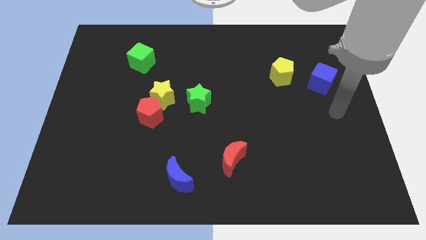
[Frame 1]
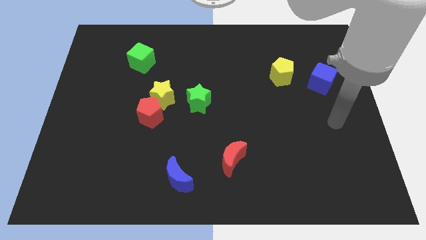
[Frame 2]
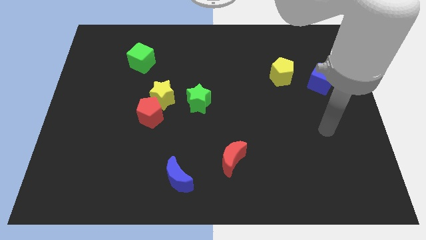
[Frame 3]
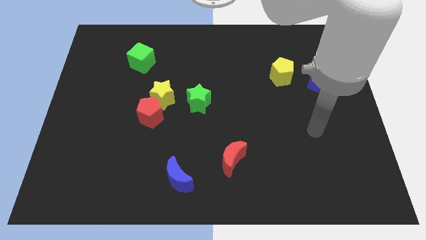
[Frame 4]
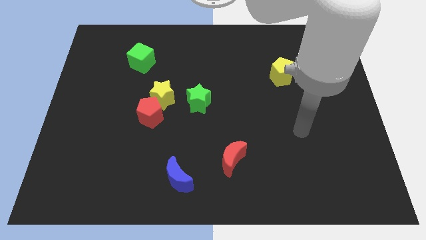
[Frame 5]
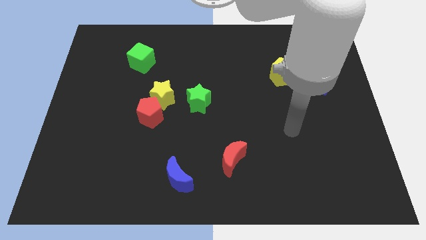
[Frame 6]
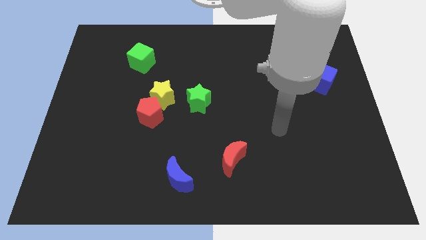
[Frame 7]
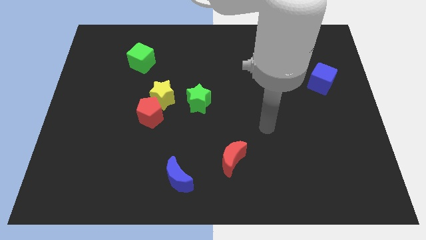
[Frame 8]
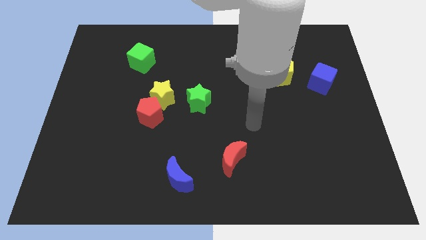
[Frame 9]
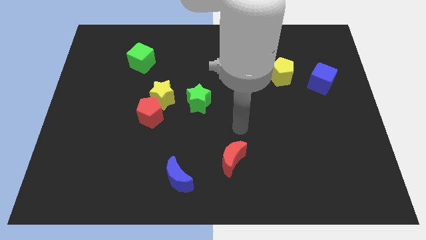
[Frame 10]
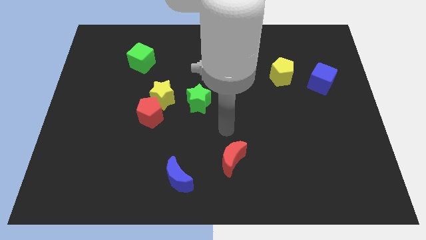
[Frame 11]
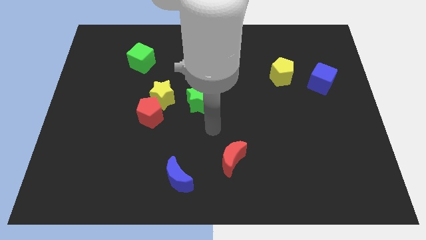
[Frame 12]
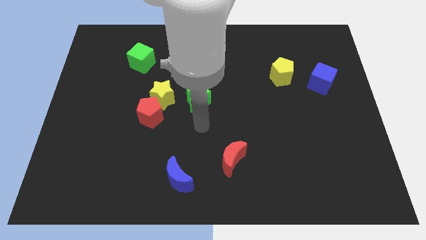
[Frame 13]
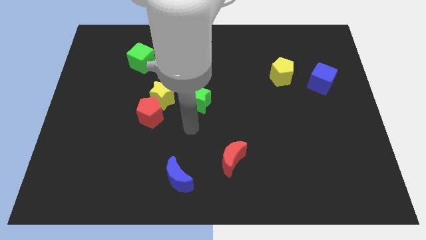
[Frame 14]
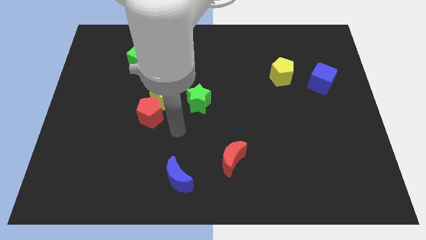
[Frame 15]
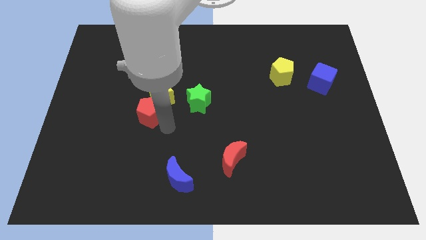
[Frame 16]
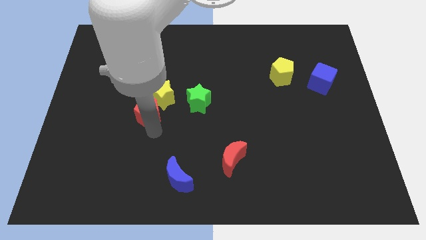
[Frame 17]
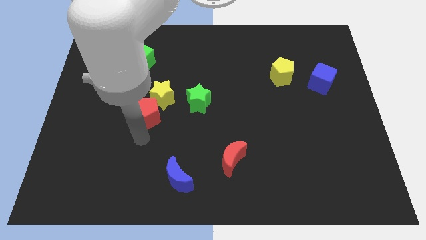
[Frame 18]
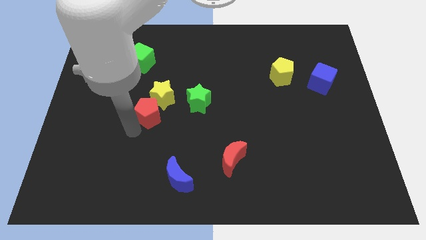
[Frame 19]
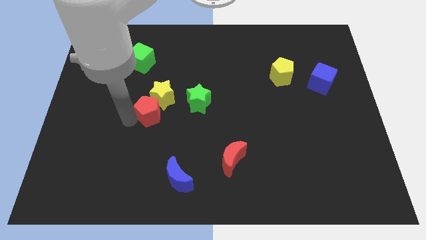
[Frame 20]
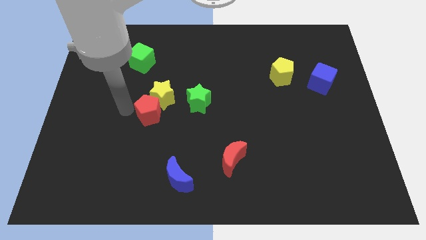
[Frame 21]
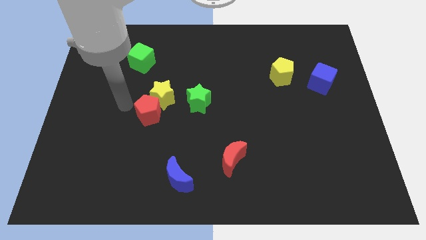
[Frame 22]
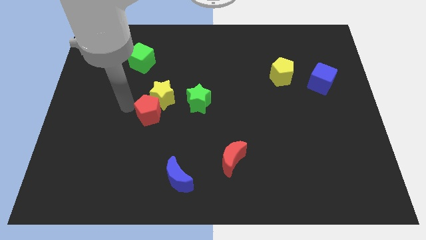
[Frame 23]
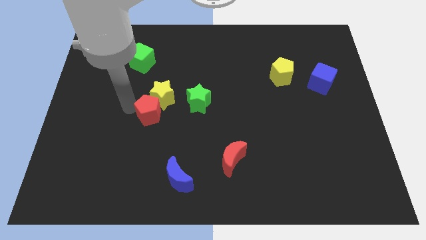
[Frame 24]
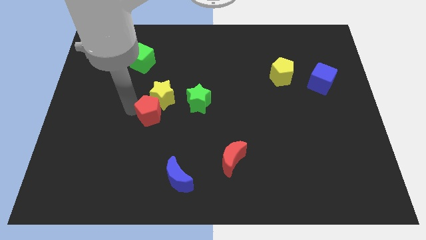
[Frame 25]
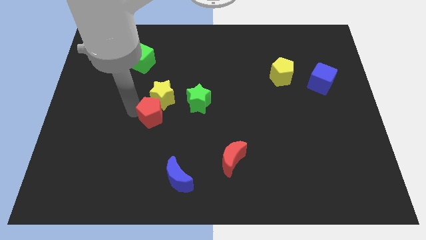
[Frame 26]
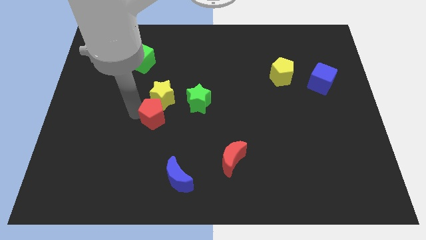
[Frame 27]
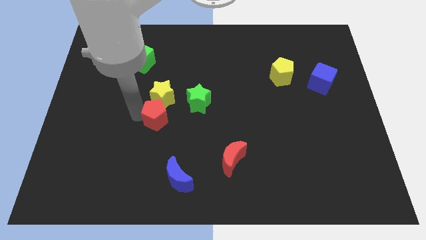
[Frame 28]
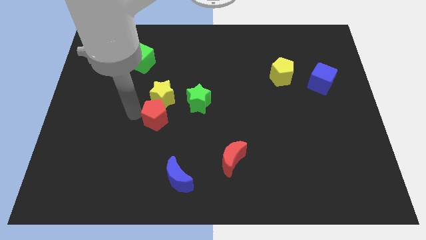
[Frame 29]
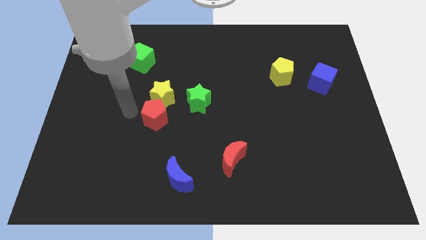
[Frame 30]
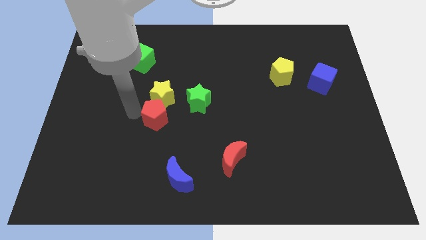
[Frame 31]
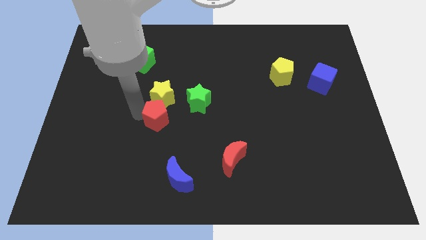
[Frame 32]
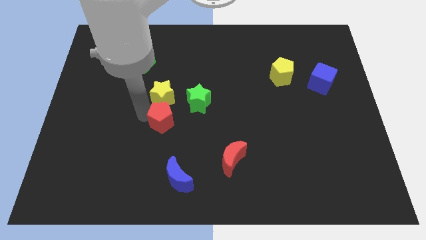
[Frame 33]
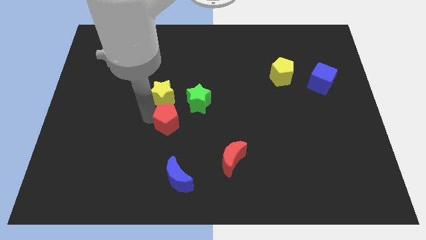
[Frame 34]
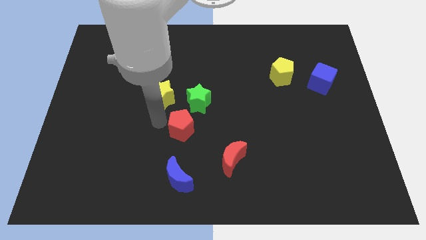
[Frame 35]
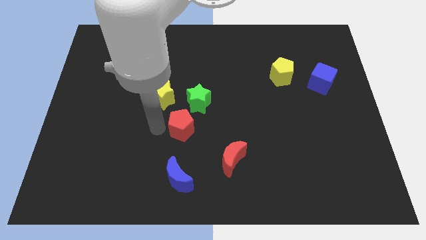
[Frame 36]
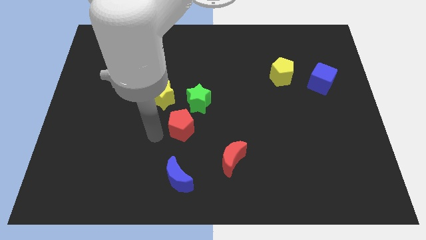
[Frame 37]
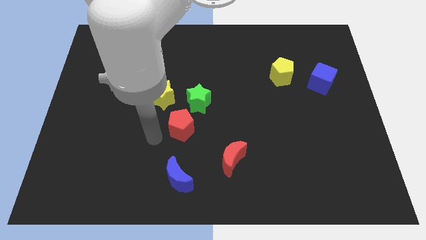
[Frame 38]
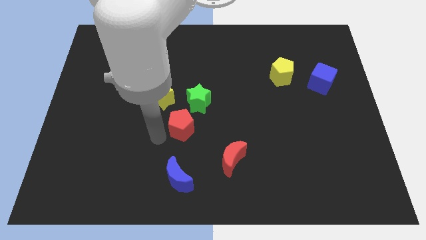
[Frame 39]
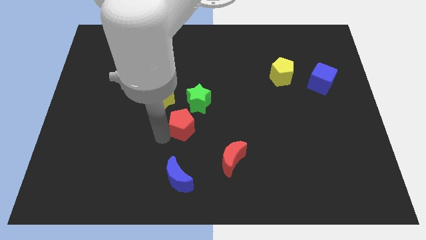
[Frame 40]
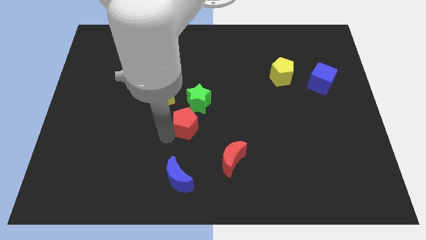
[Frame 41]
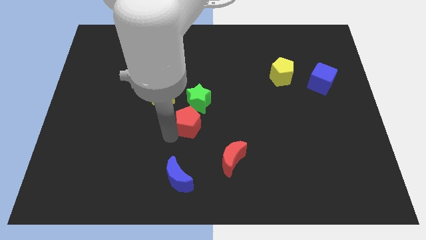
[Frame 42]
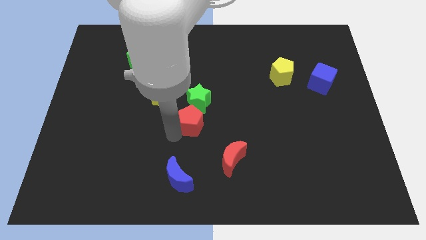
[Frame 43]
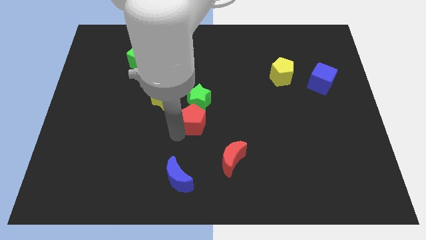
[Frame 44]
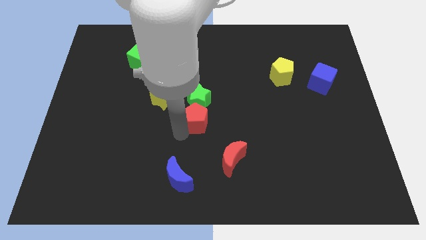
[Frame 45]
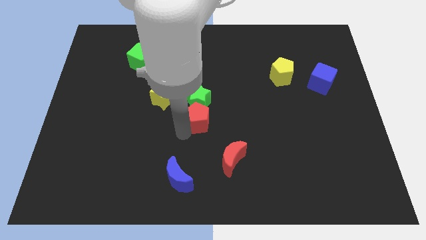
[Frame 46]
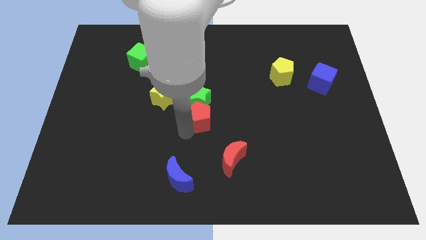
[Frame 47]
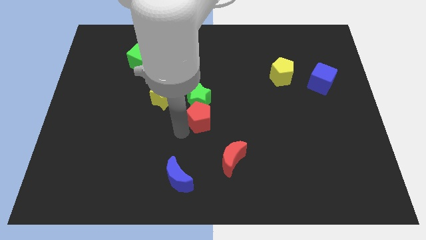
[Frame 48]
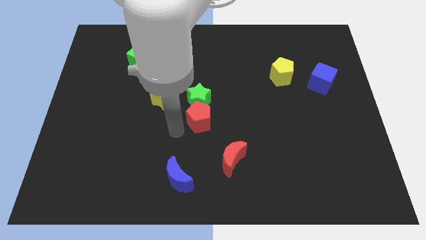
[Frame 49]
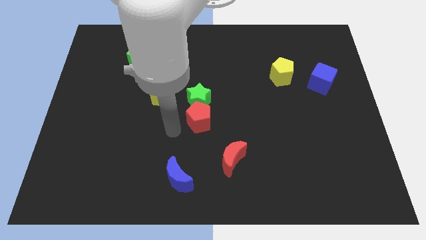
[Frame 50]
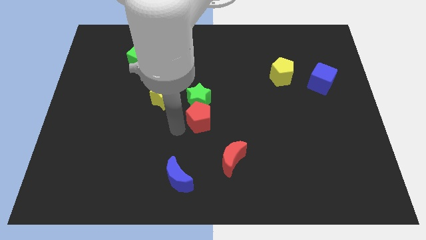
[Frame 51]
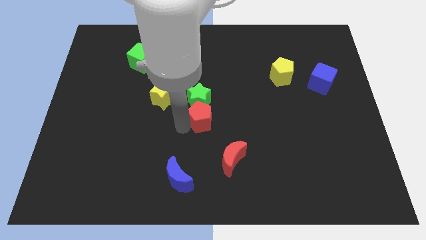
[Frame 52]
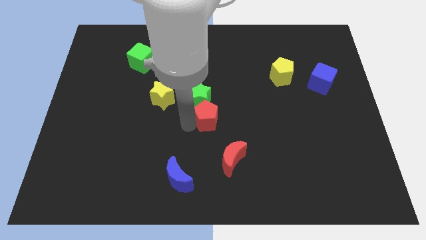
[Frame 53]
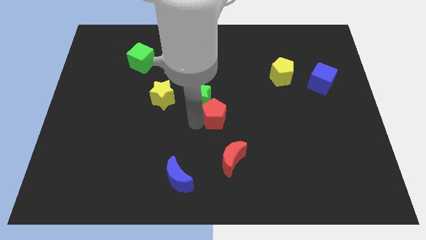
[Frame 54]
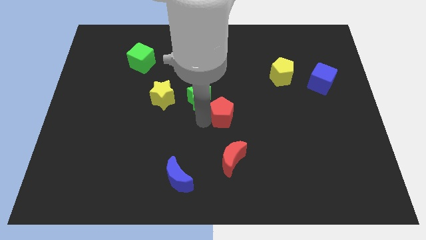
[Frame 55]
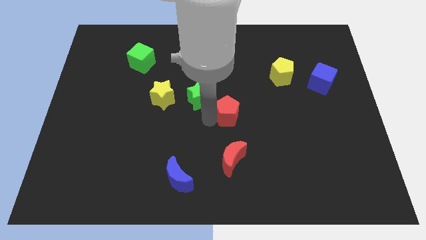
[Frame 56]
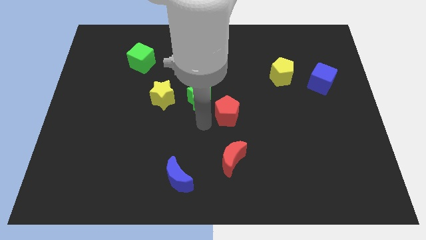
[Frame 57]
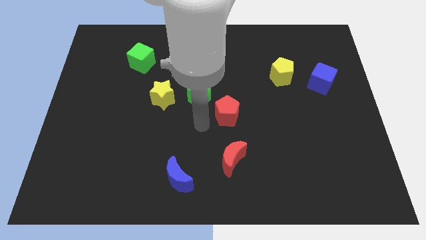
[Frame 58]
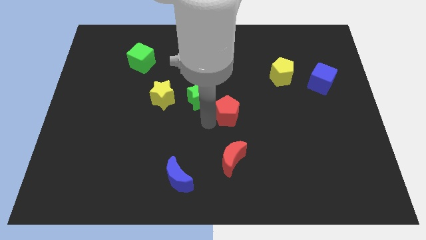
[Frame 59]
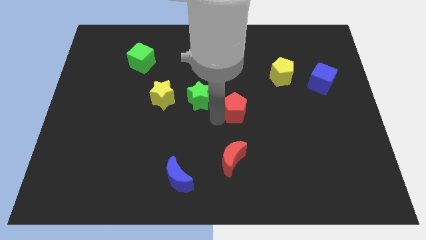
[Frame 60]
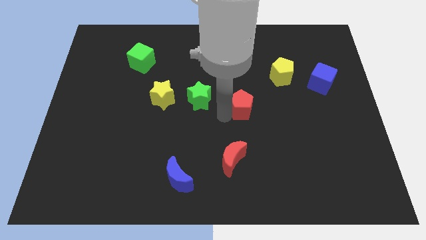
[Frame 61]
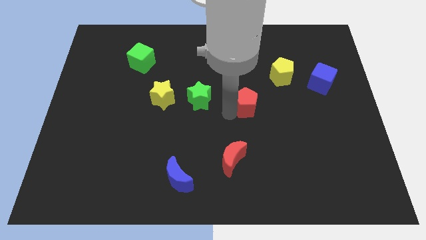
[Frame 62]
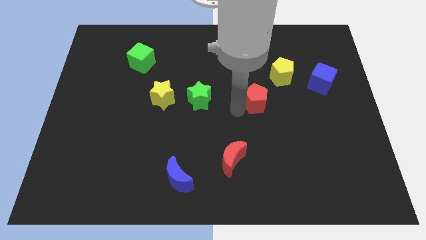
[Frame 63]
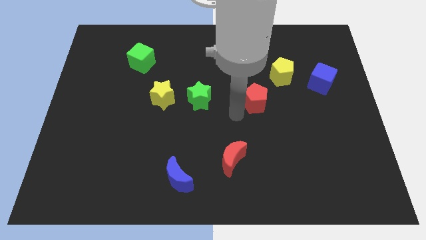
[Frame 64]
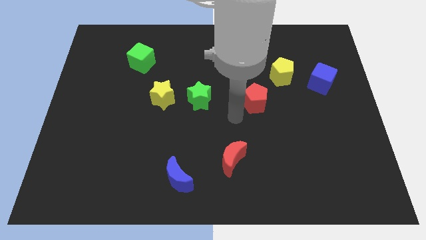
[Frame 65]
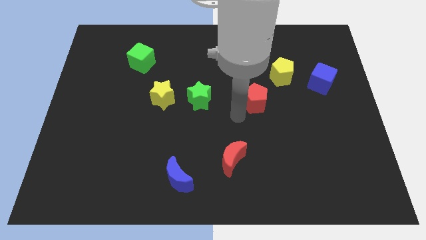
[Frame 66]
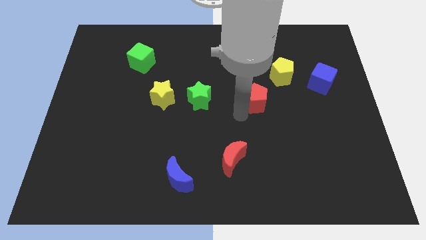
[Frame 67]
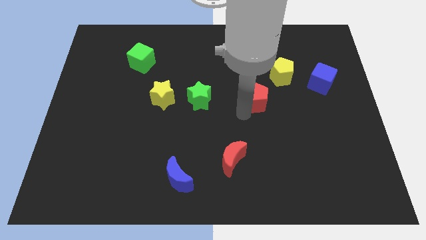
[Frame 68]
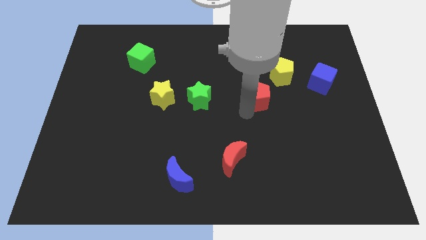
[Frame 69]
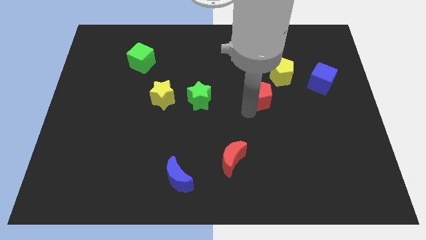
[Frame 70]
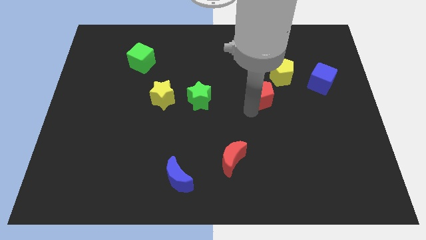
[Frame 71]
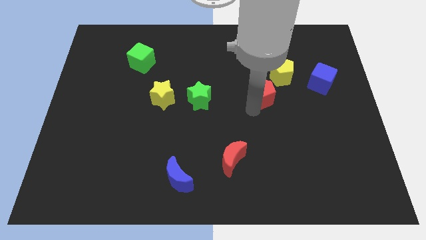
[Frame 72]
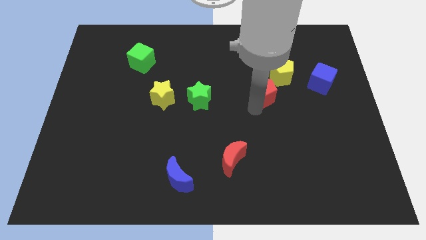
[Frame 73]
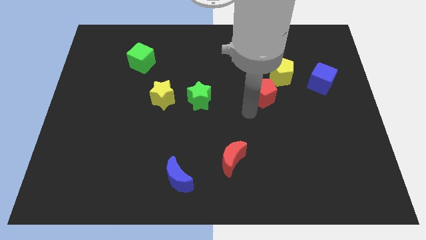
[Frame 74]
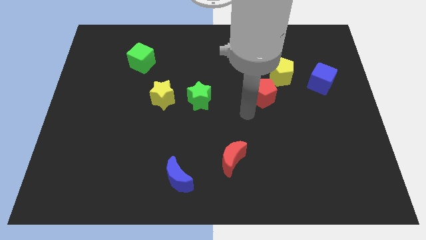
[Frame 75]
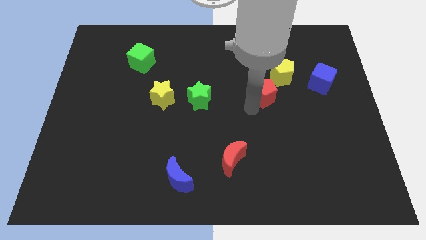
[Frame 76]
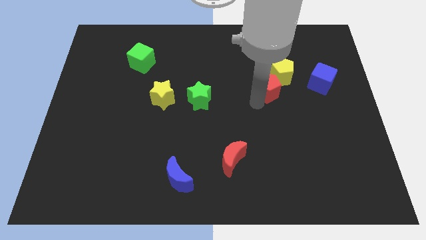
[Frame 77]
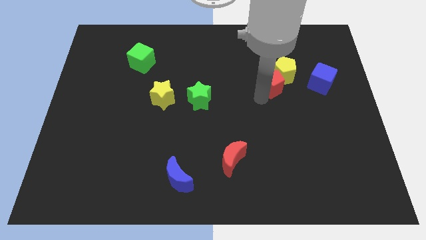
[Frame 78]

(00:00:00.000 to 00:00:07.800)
slide the red pentagon next to the yellow pentagon
